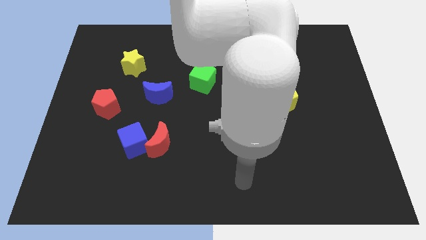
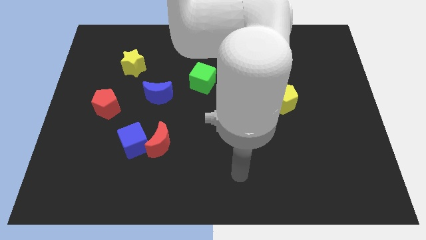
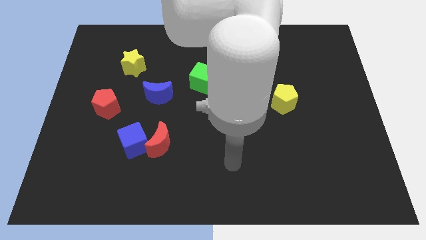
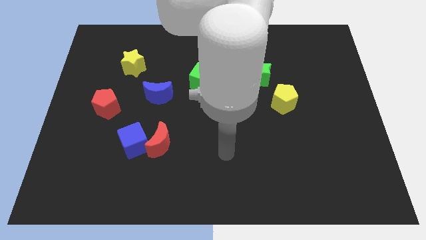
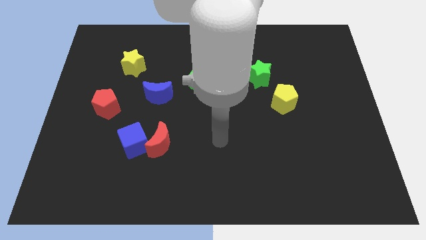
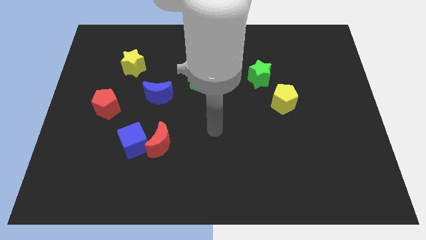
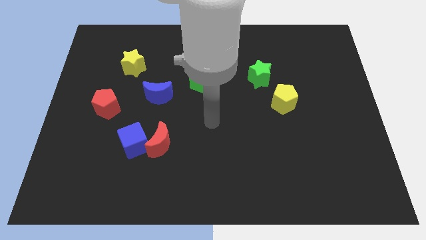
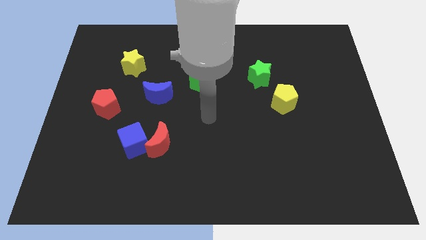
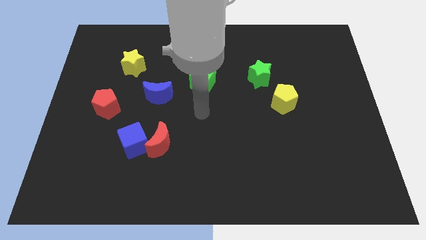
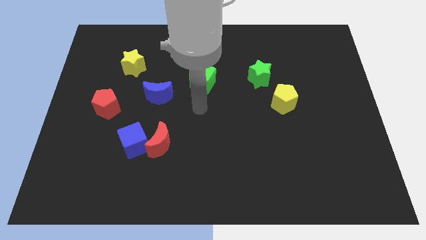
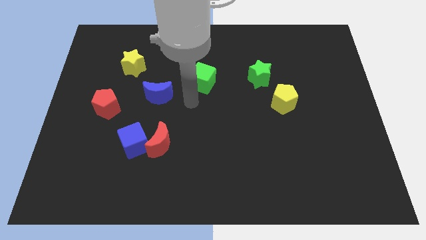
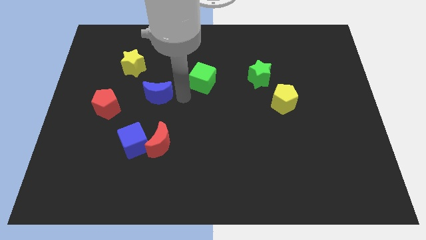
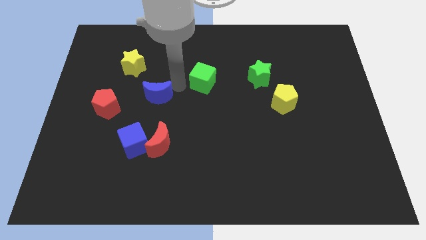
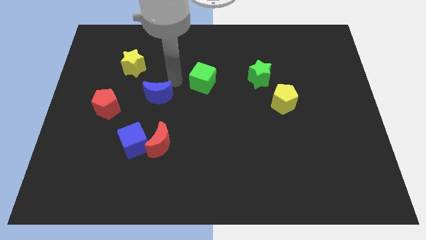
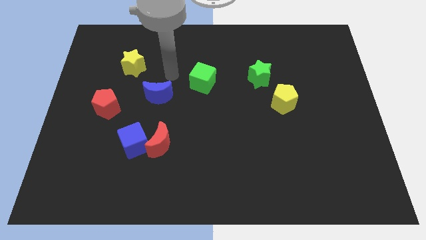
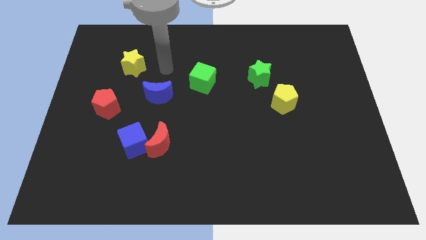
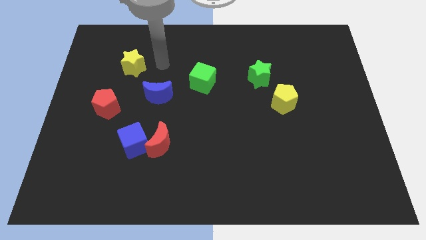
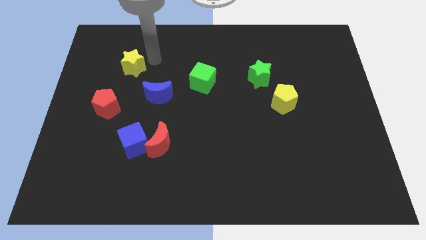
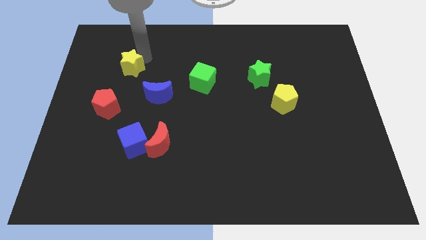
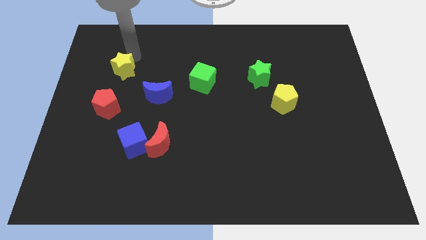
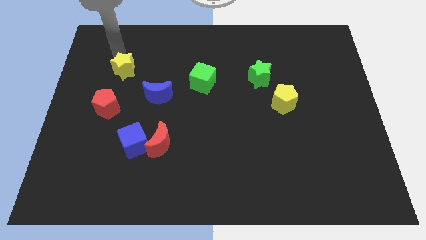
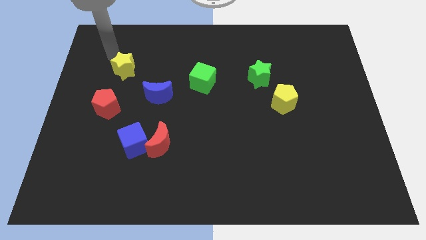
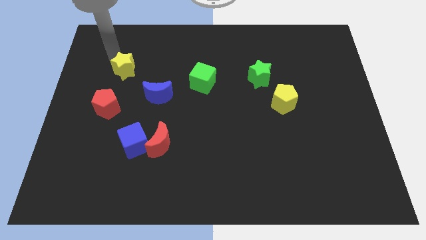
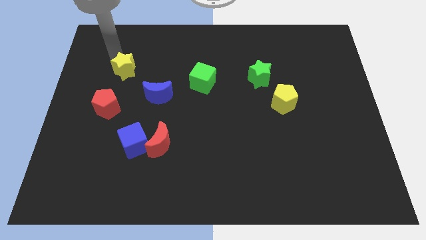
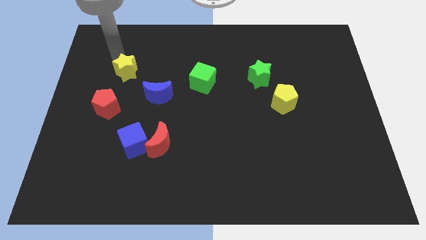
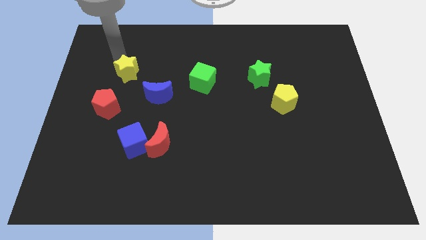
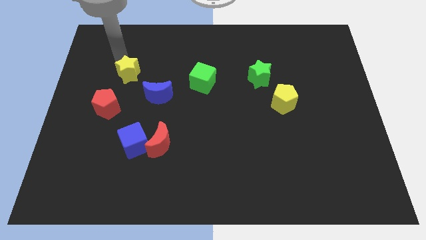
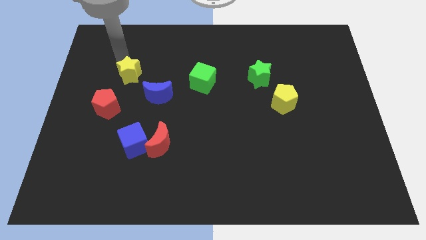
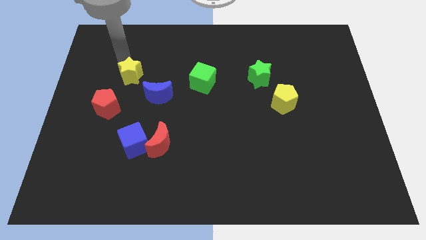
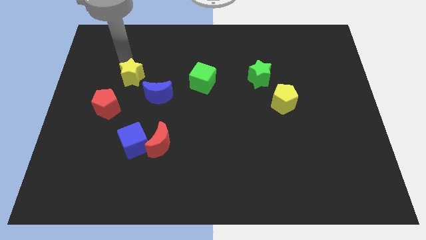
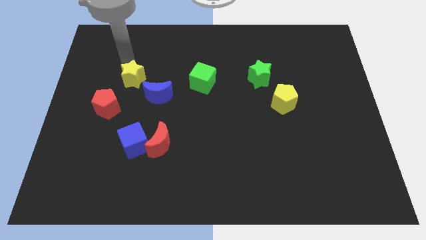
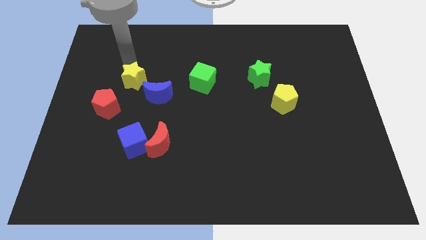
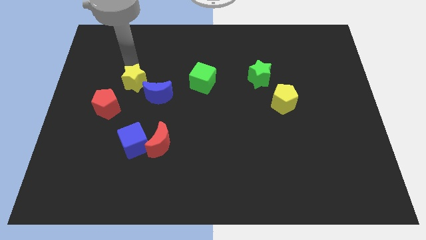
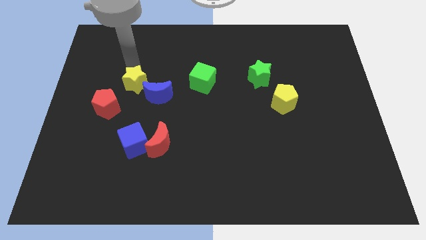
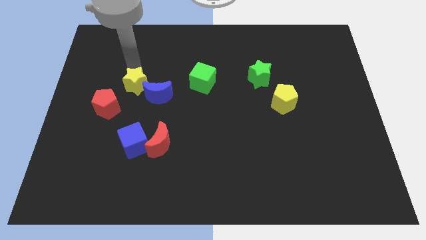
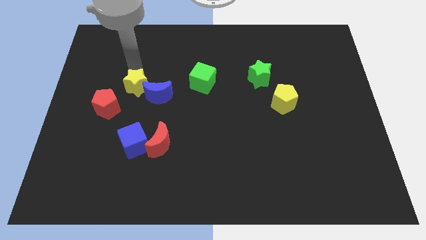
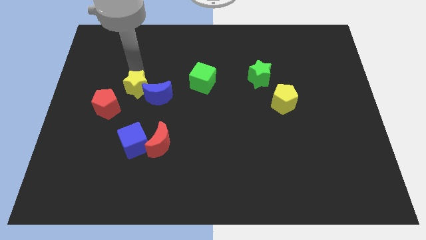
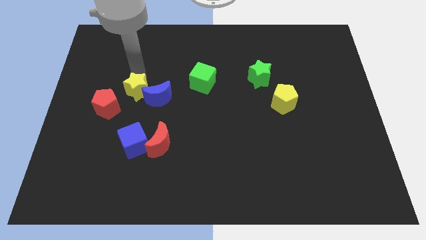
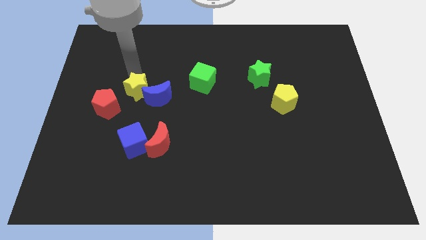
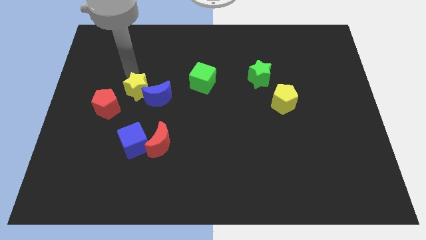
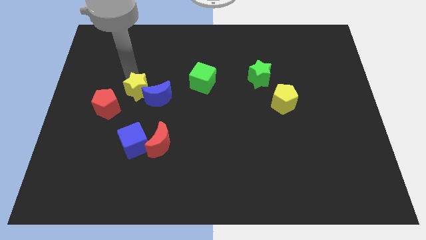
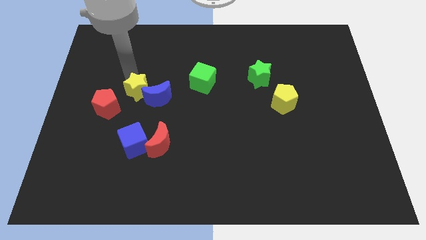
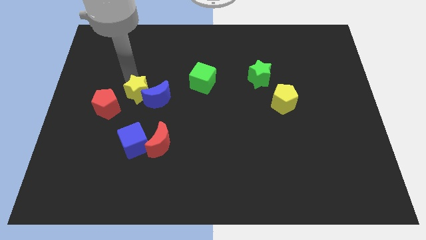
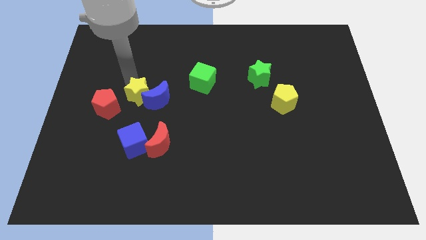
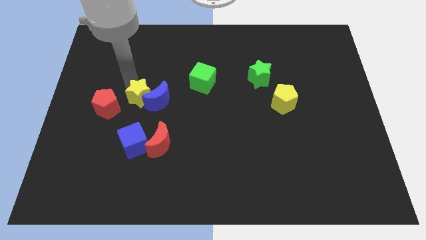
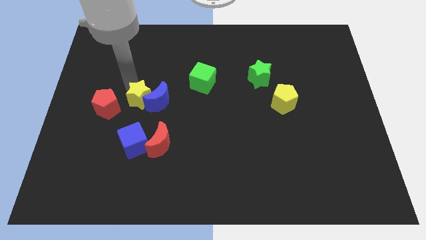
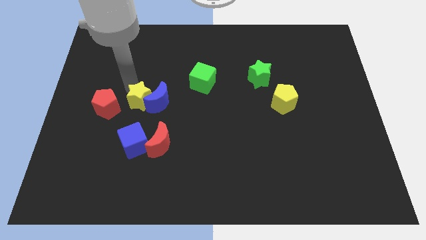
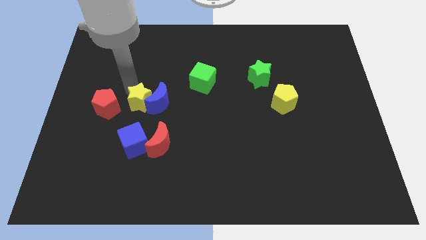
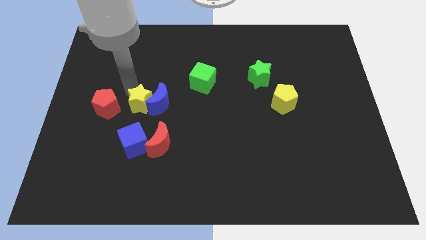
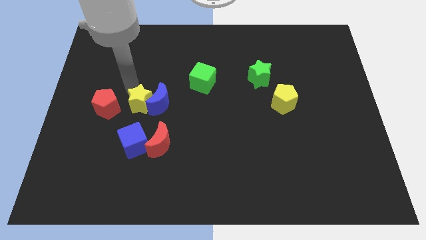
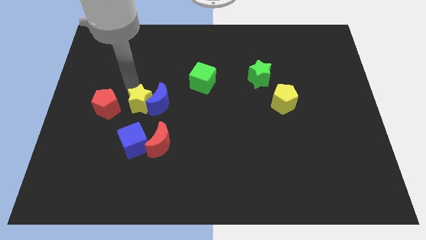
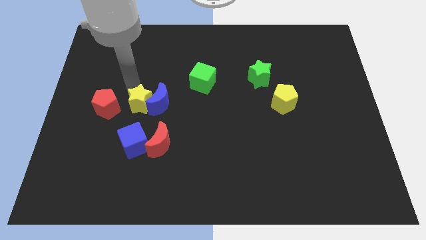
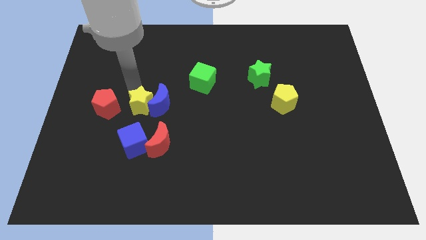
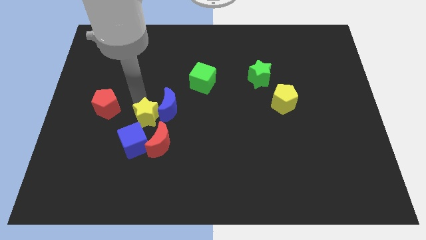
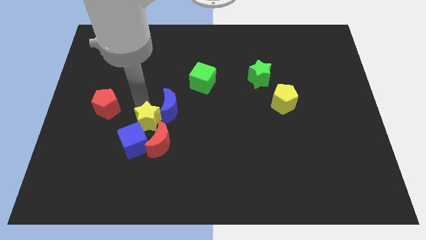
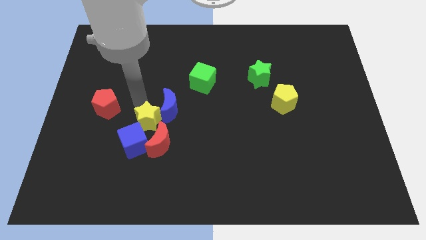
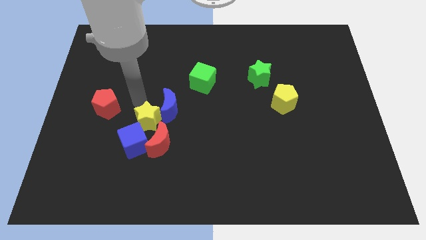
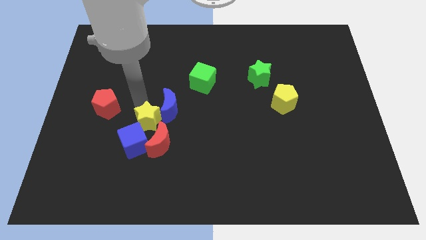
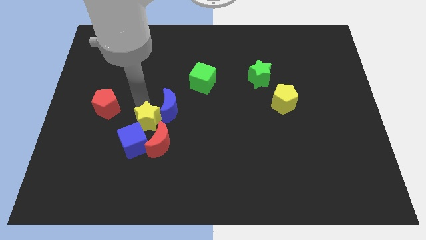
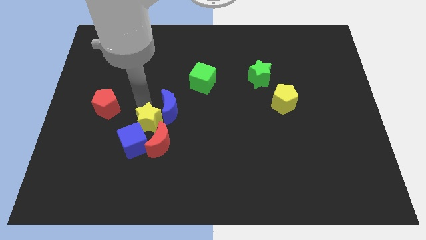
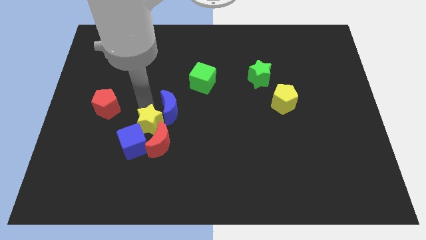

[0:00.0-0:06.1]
put the yellow star towards the red moon

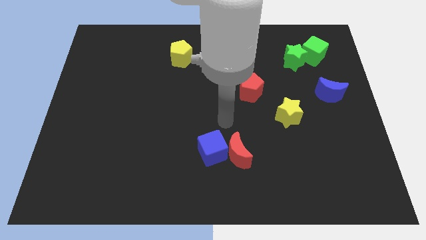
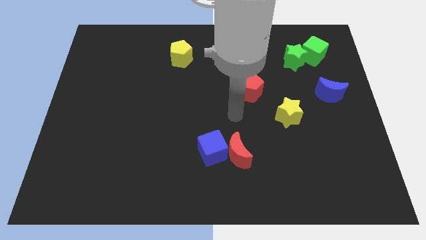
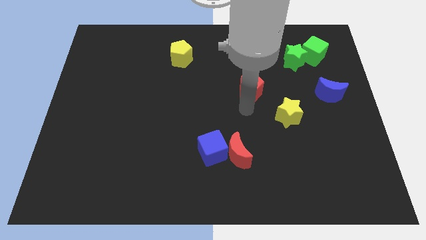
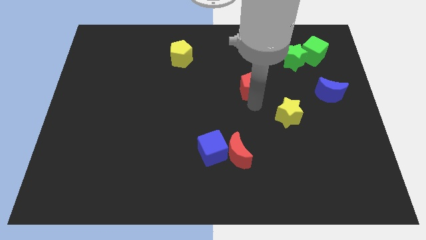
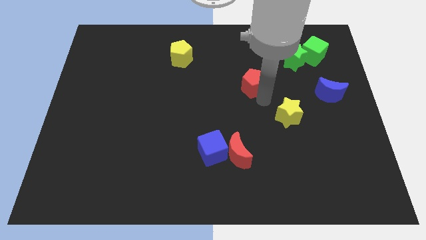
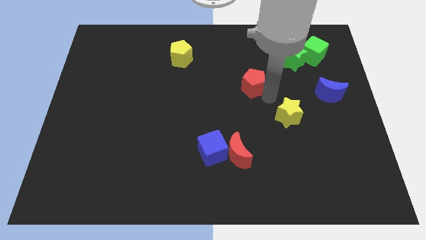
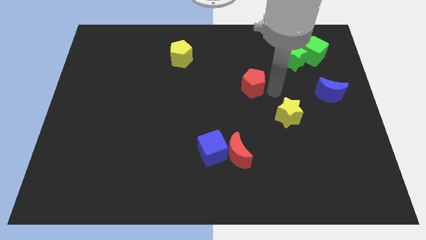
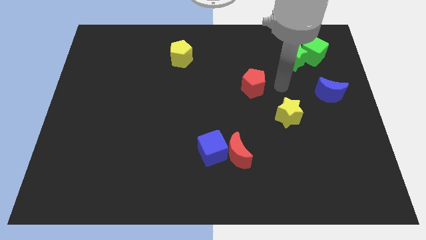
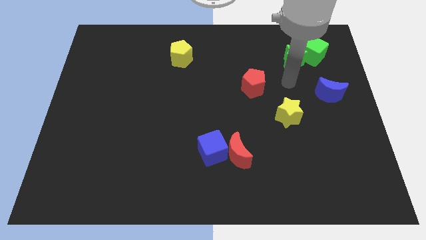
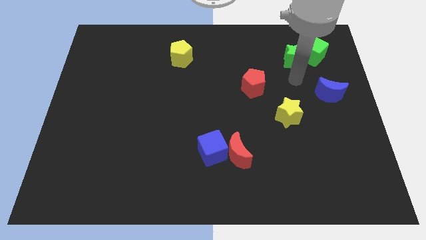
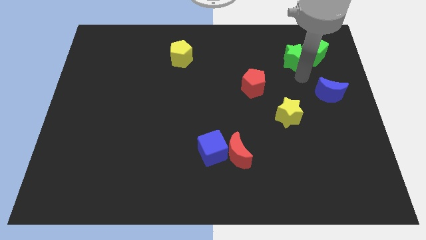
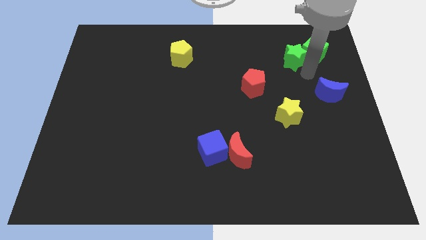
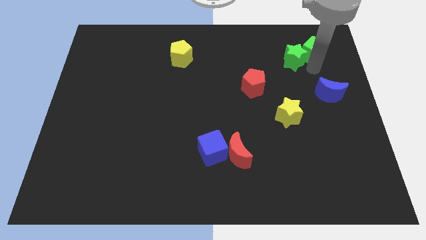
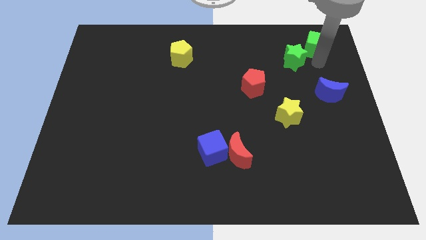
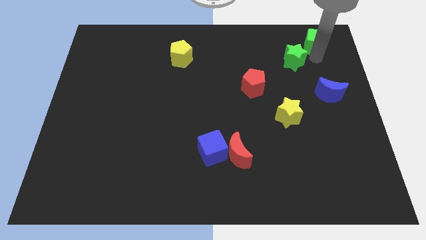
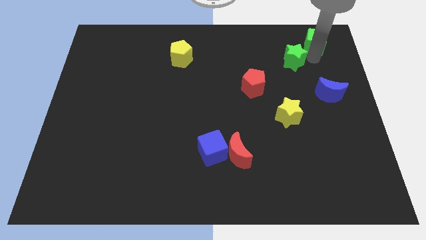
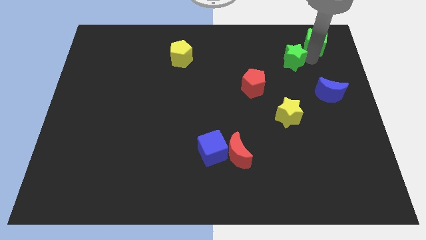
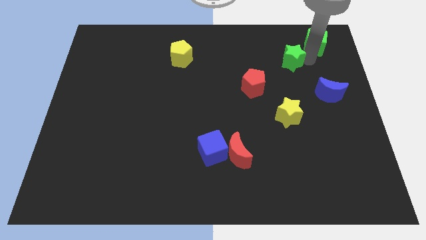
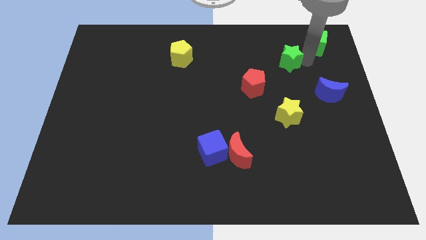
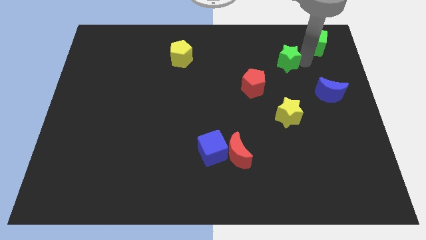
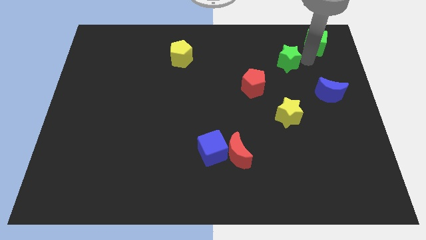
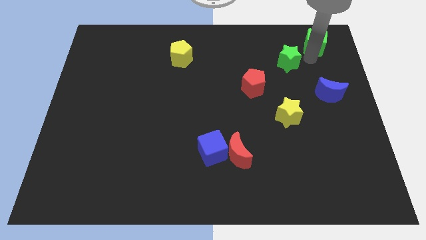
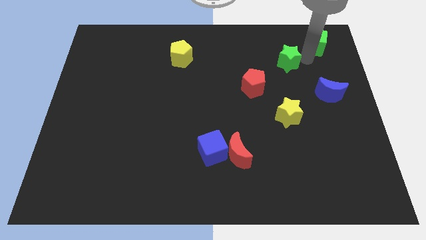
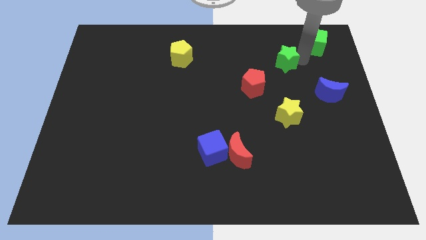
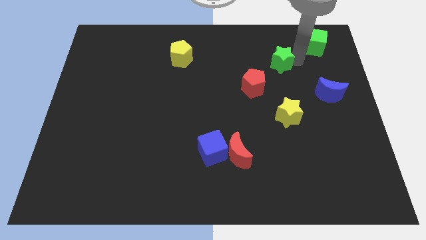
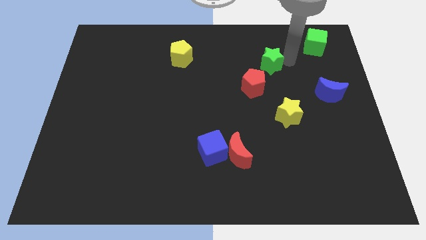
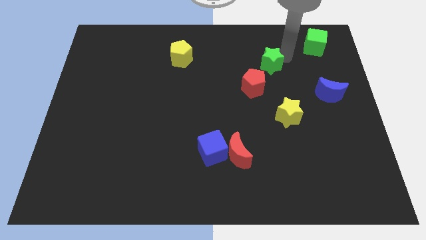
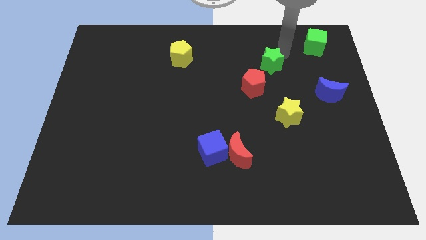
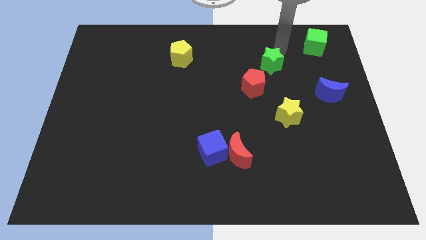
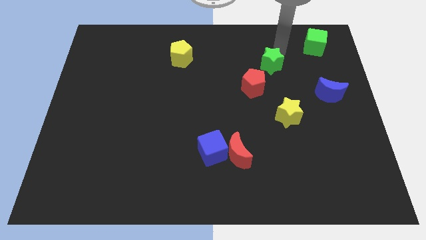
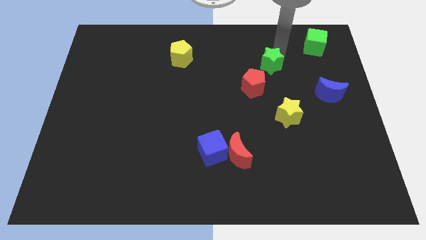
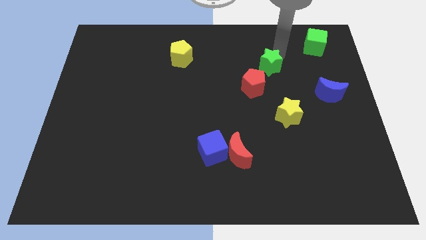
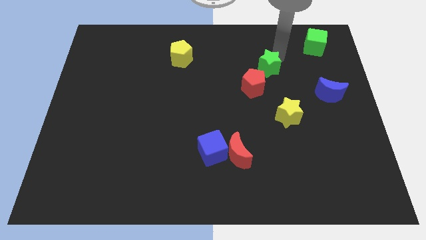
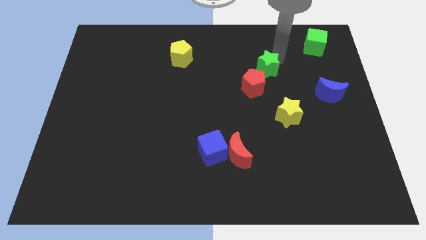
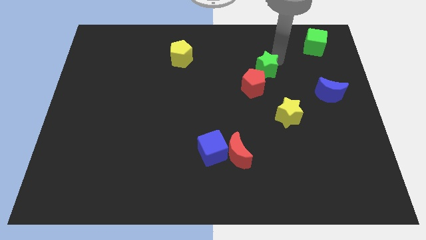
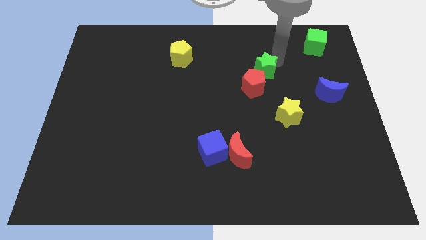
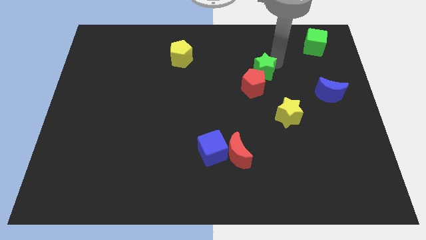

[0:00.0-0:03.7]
slide the green star to the red pentagon
